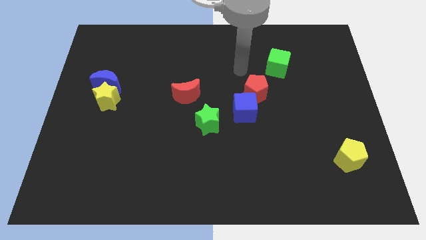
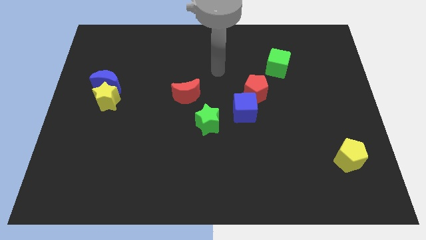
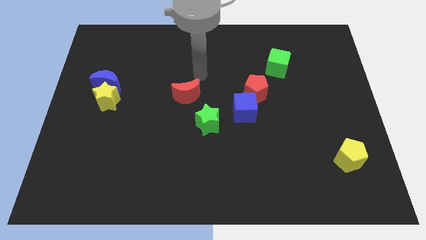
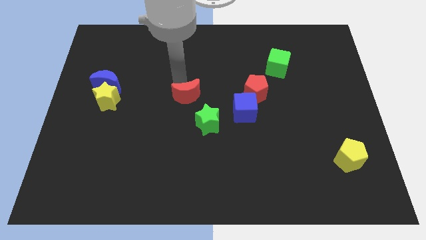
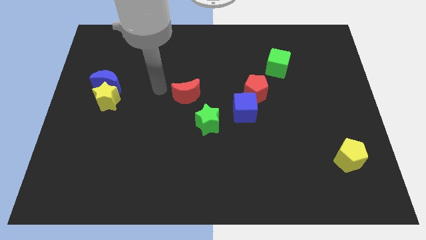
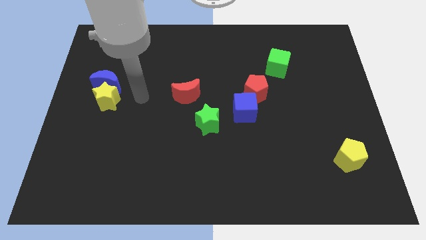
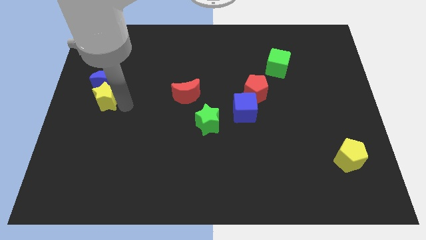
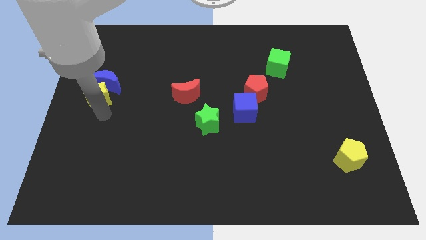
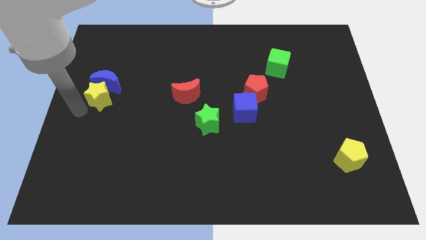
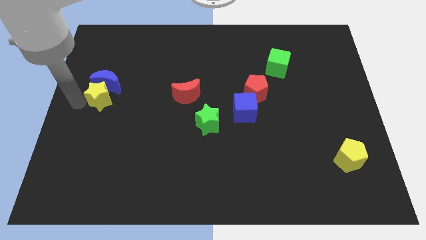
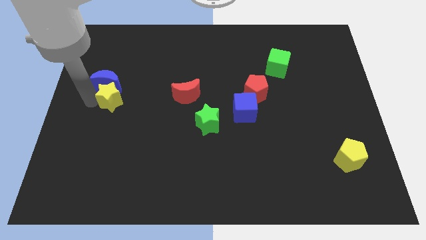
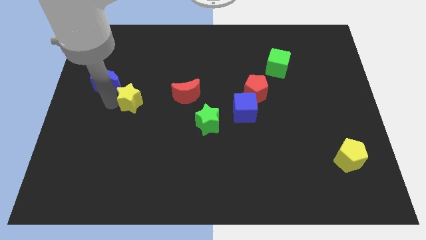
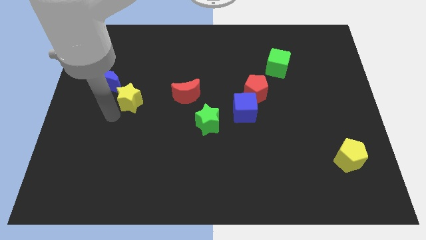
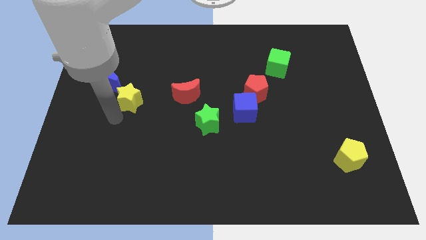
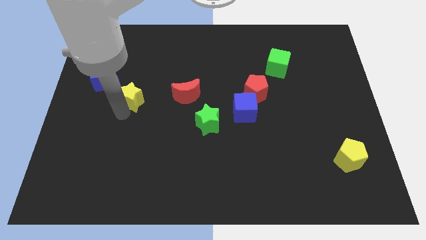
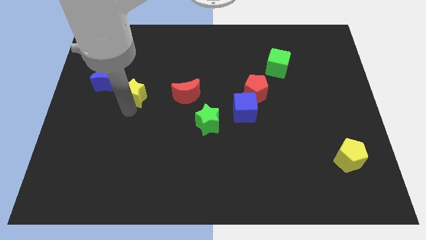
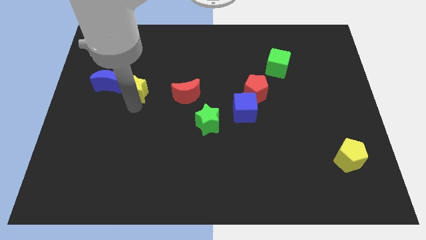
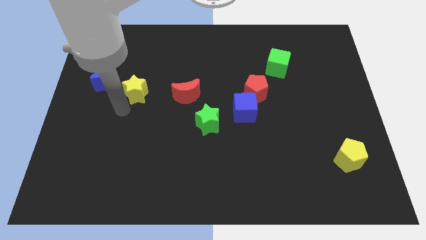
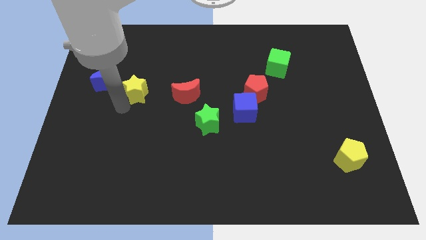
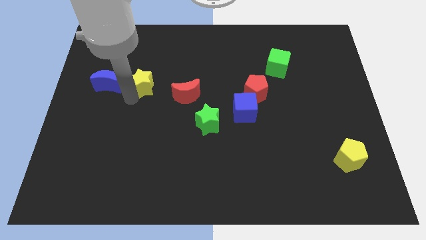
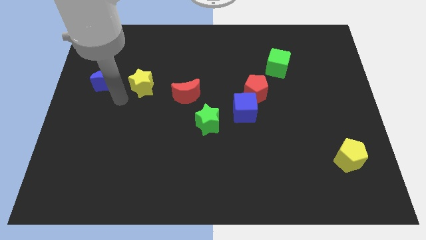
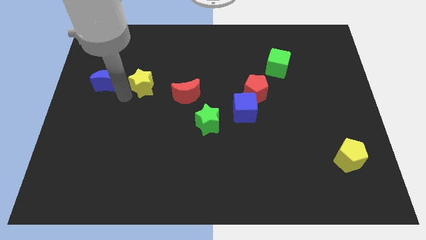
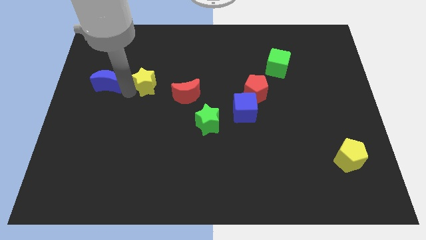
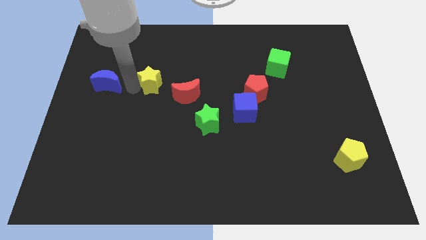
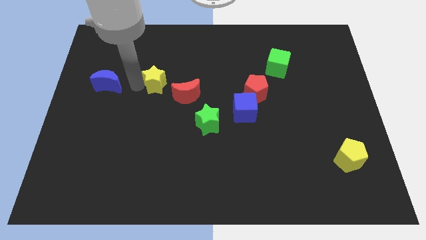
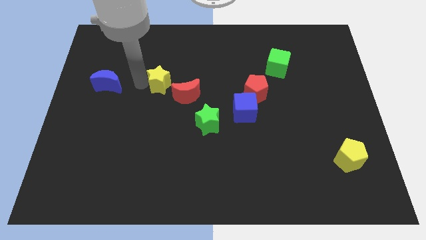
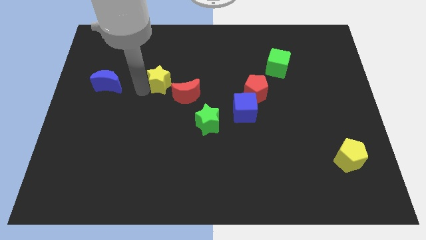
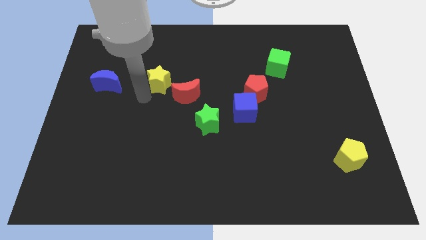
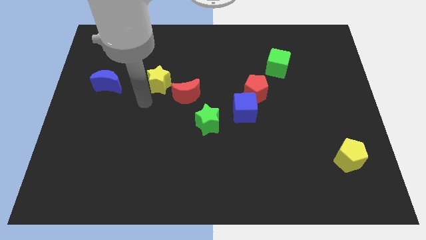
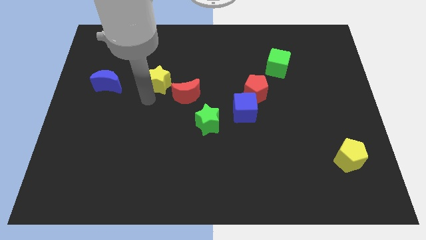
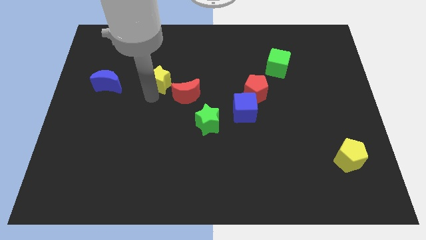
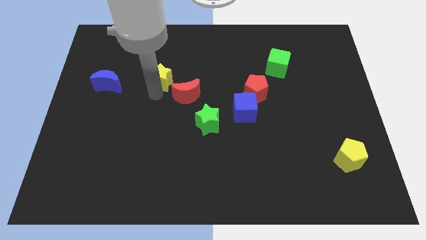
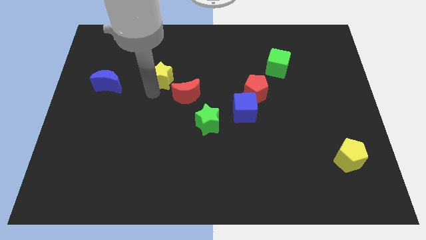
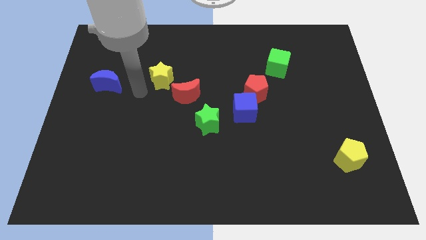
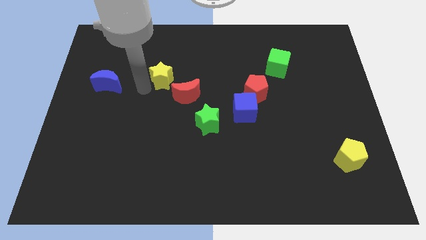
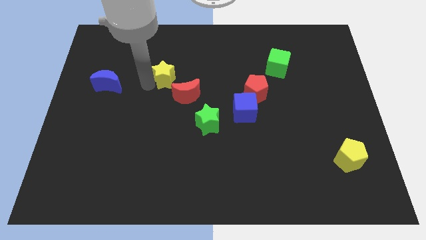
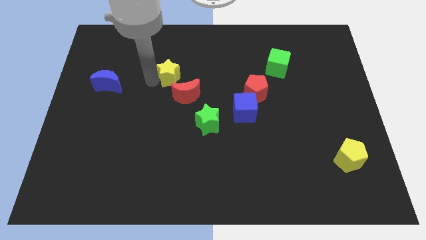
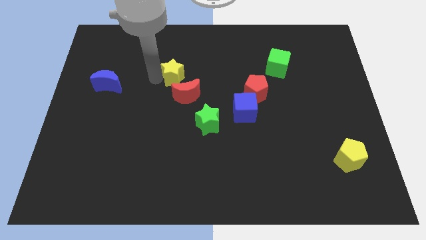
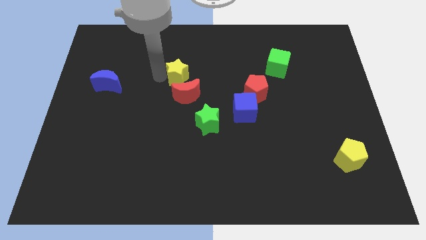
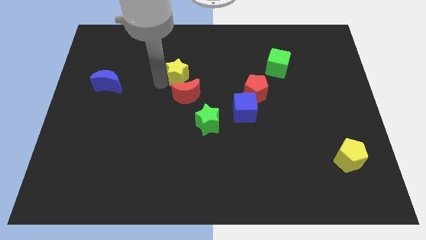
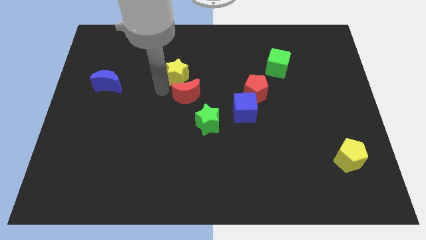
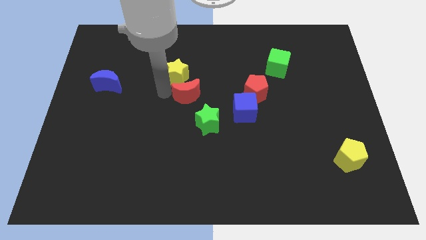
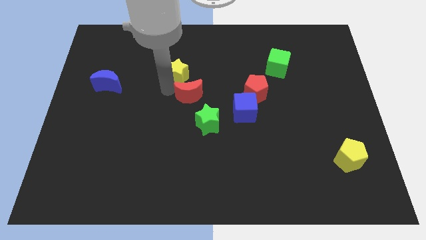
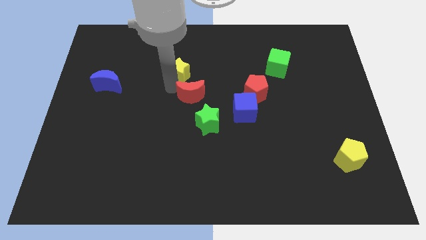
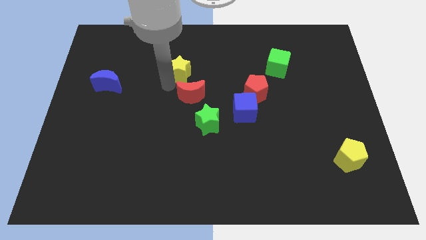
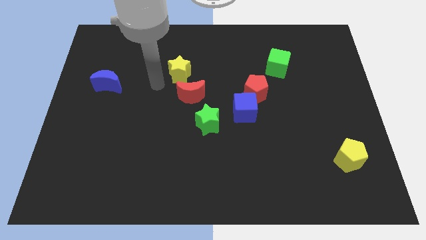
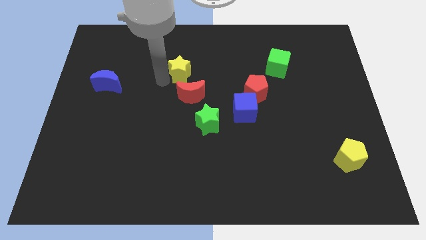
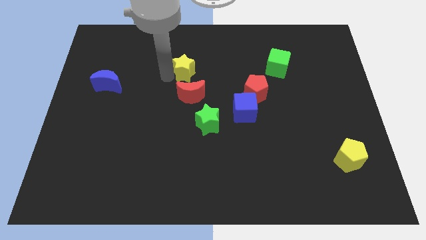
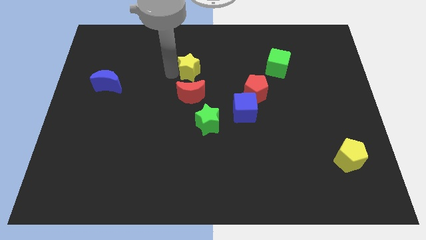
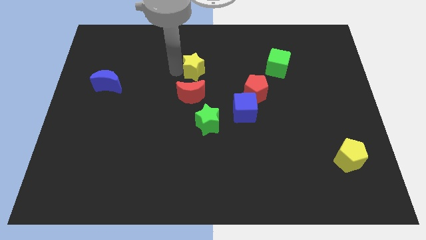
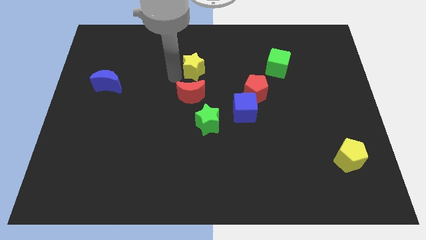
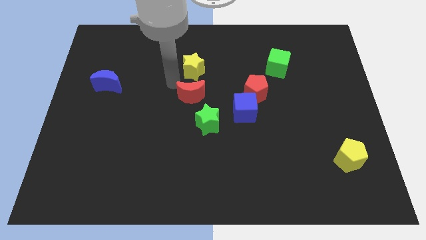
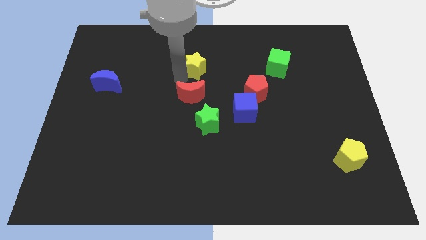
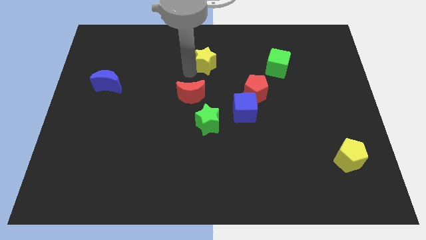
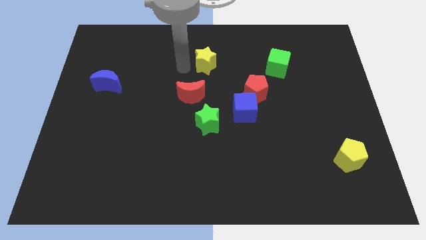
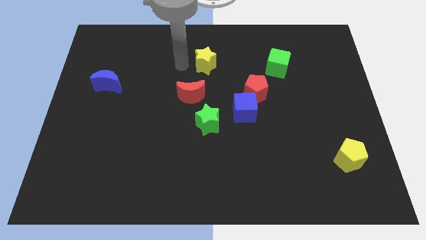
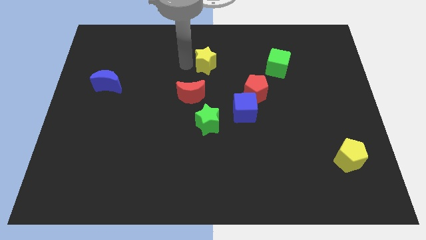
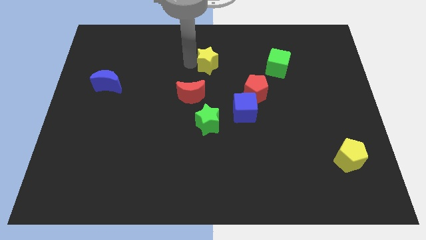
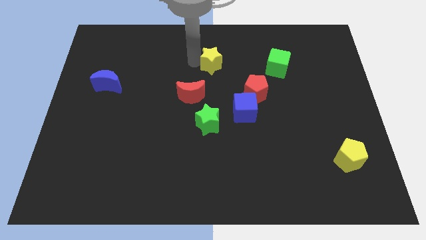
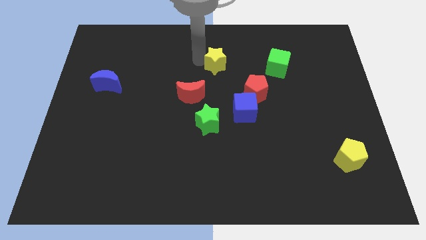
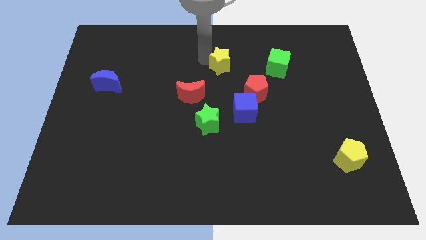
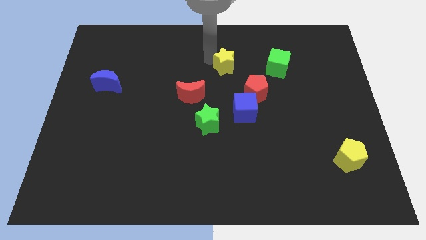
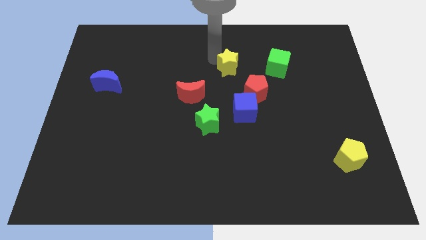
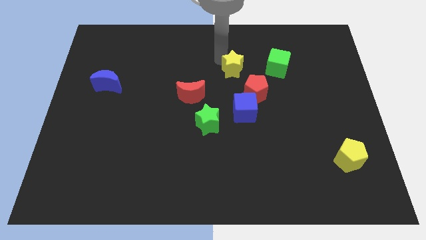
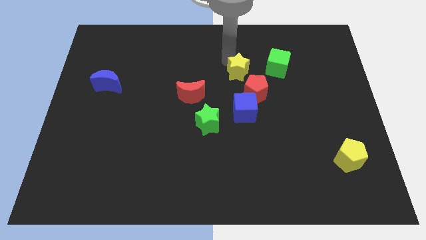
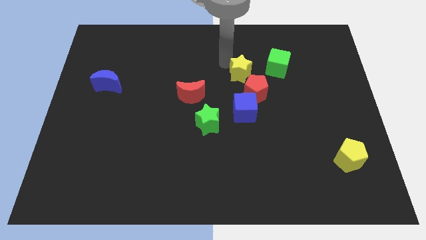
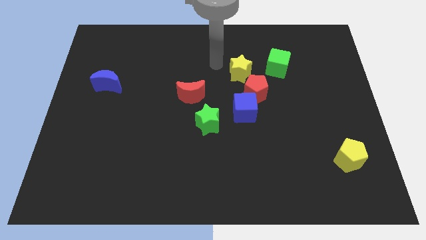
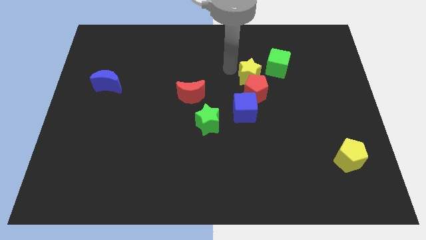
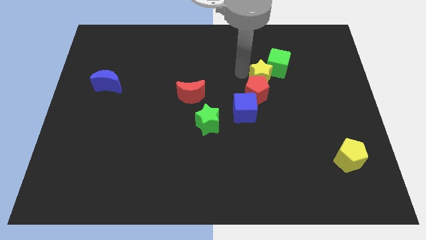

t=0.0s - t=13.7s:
push the yellow star to the top right side of the blue cube
